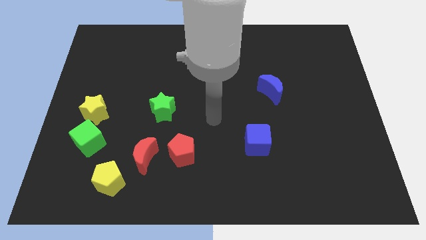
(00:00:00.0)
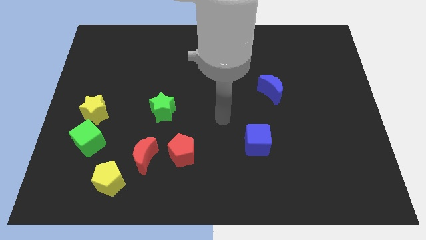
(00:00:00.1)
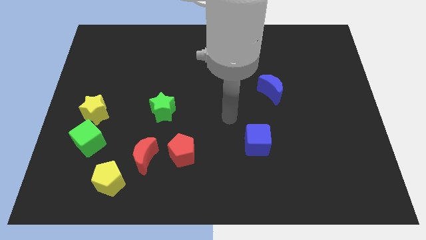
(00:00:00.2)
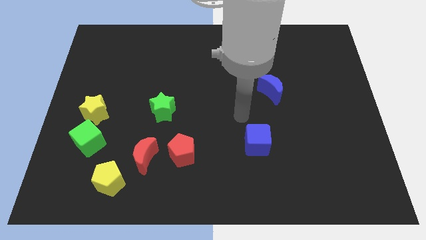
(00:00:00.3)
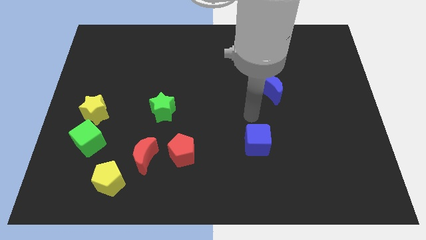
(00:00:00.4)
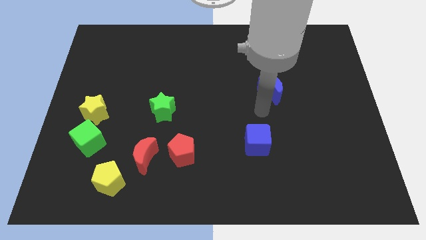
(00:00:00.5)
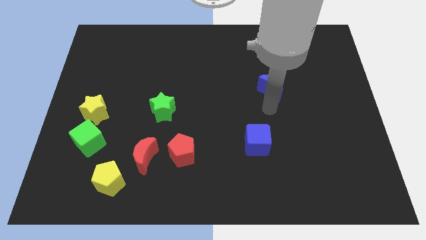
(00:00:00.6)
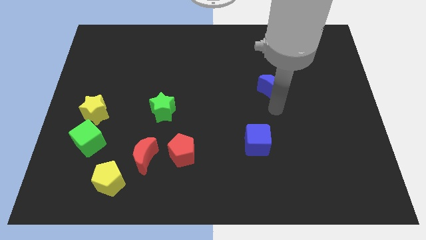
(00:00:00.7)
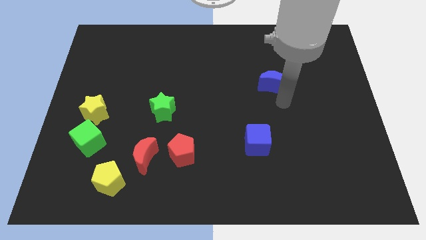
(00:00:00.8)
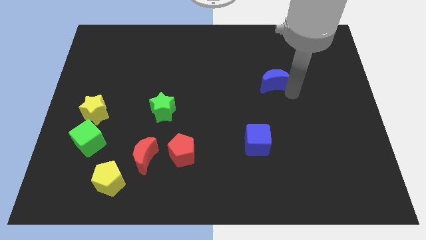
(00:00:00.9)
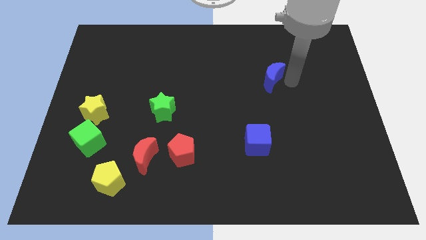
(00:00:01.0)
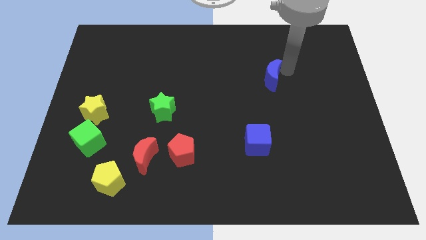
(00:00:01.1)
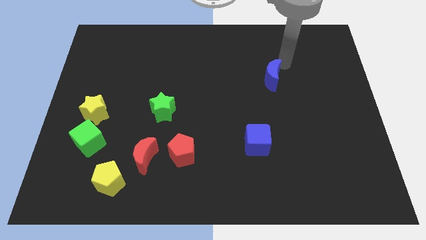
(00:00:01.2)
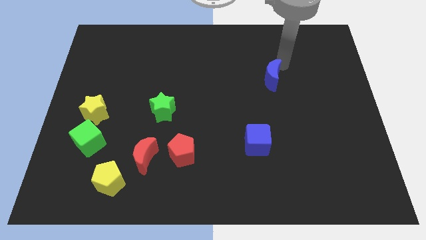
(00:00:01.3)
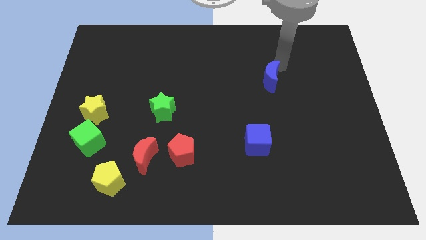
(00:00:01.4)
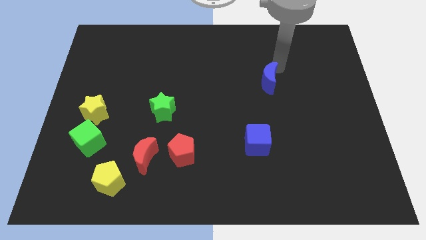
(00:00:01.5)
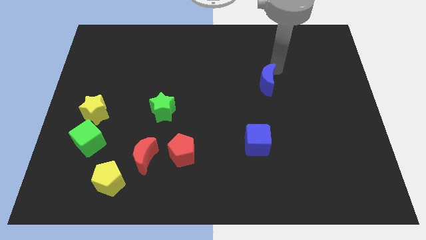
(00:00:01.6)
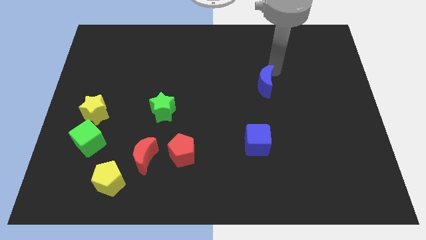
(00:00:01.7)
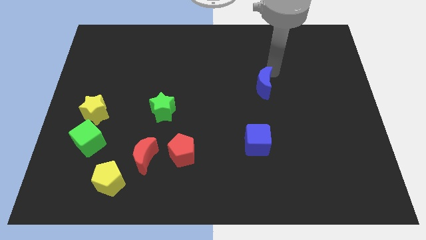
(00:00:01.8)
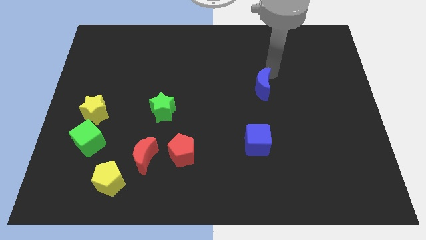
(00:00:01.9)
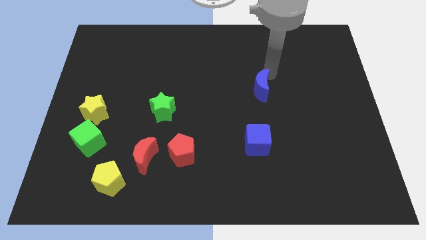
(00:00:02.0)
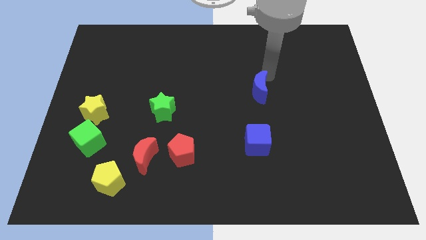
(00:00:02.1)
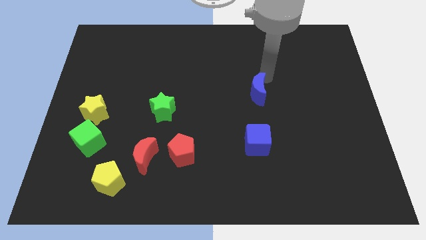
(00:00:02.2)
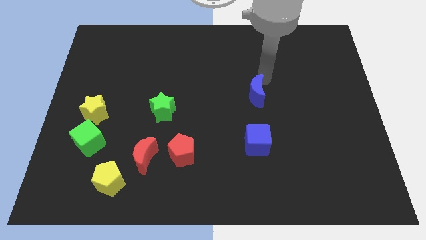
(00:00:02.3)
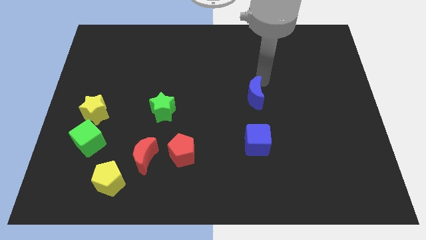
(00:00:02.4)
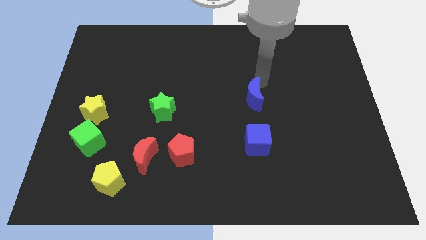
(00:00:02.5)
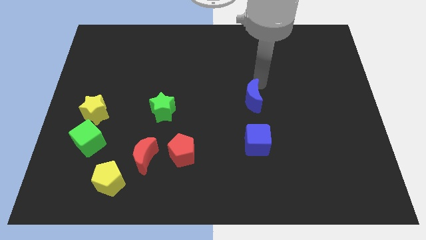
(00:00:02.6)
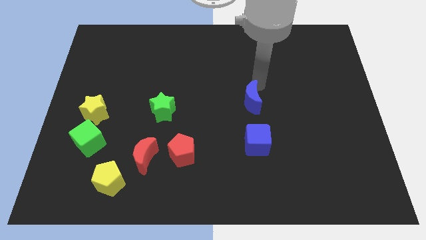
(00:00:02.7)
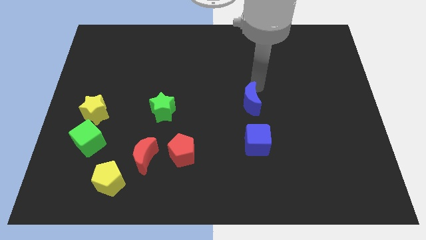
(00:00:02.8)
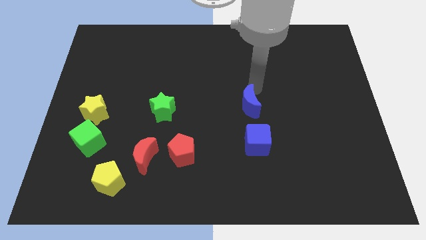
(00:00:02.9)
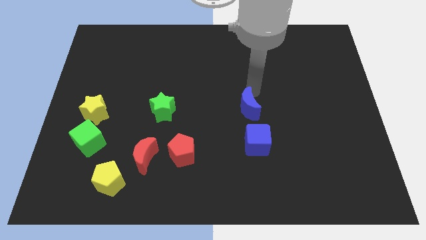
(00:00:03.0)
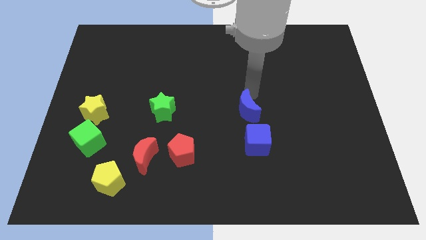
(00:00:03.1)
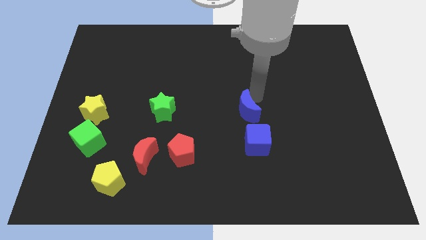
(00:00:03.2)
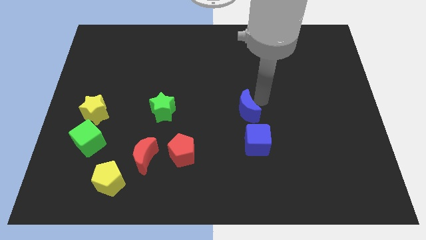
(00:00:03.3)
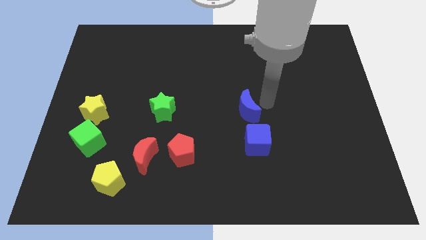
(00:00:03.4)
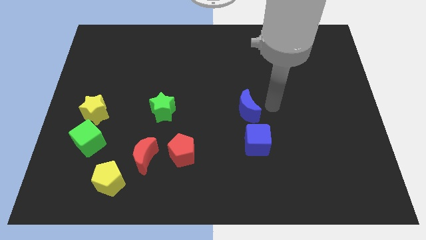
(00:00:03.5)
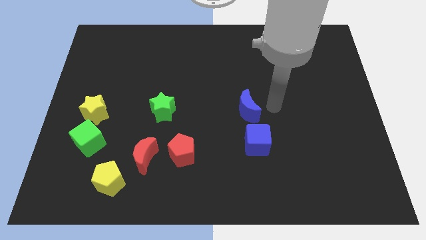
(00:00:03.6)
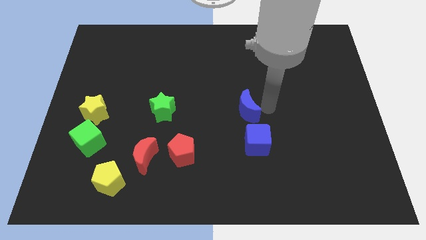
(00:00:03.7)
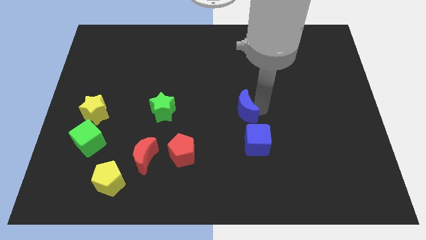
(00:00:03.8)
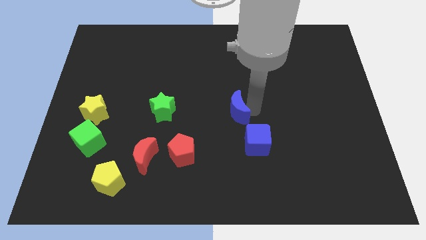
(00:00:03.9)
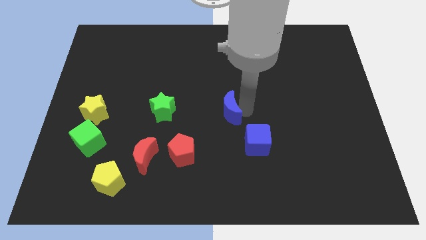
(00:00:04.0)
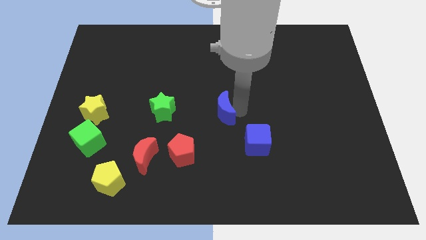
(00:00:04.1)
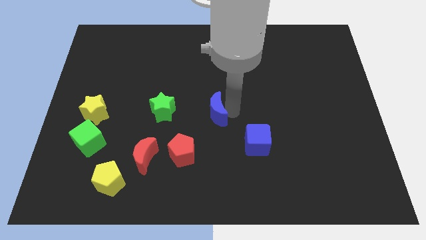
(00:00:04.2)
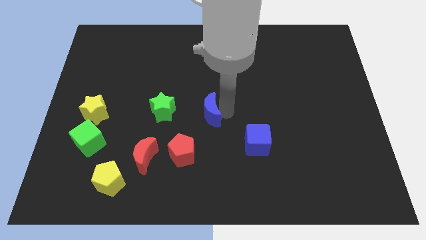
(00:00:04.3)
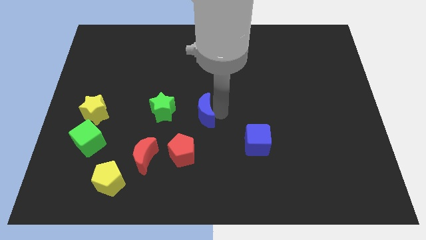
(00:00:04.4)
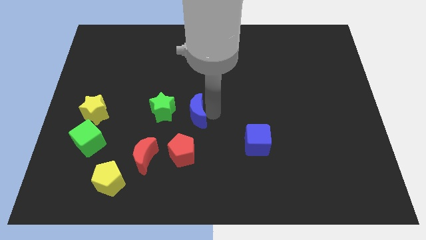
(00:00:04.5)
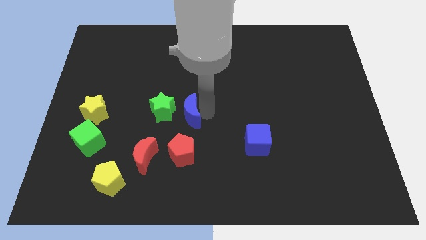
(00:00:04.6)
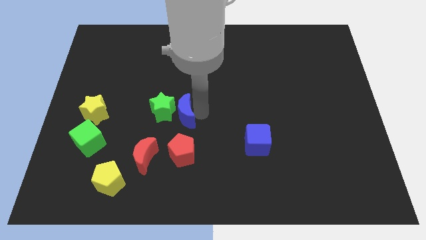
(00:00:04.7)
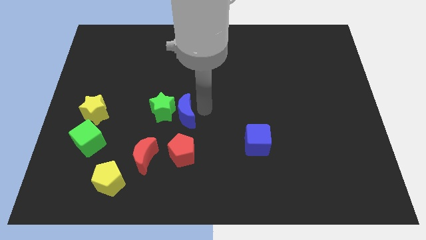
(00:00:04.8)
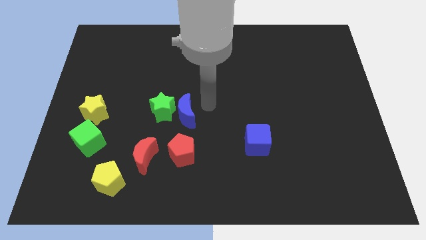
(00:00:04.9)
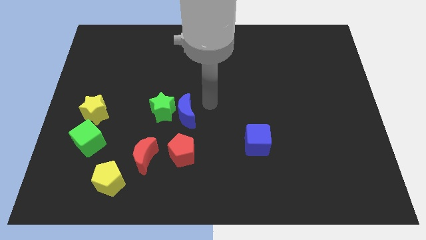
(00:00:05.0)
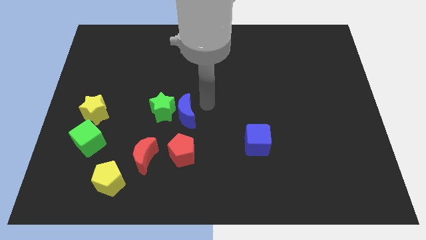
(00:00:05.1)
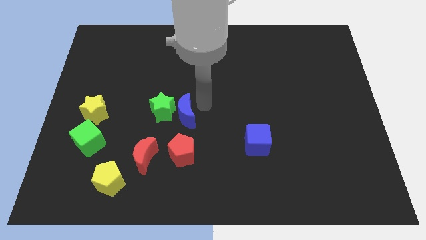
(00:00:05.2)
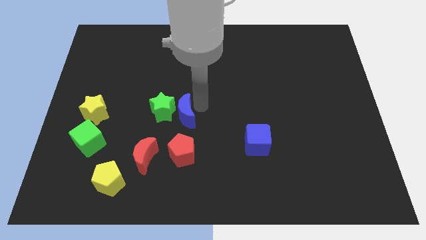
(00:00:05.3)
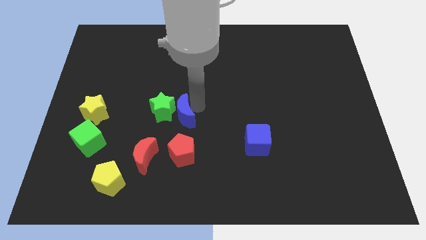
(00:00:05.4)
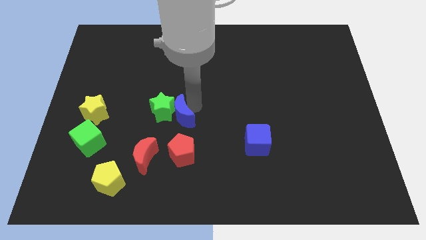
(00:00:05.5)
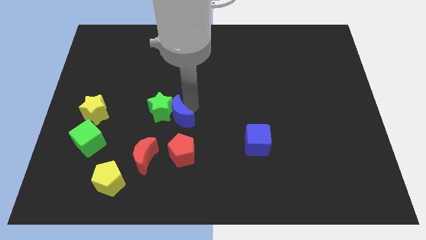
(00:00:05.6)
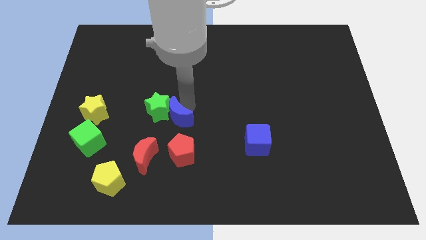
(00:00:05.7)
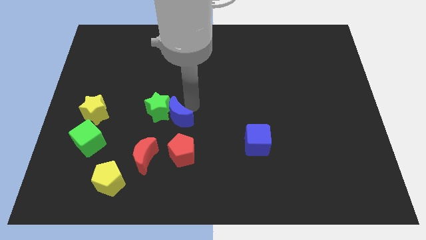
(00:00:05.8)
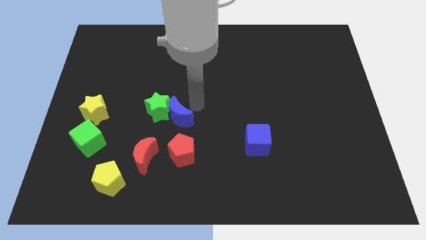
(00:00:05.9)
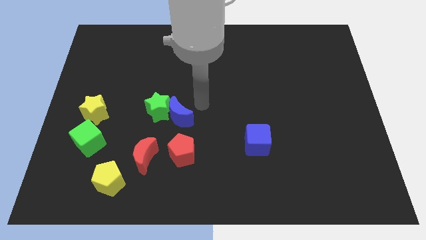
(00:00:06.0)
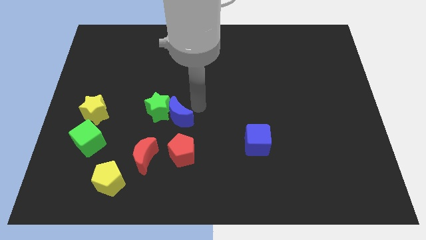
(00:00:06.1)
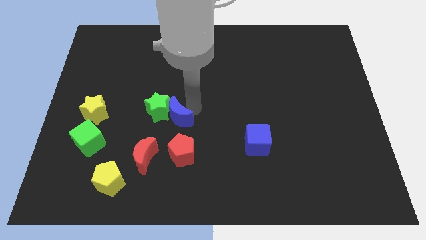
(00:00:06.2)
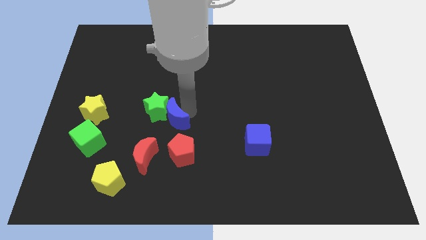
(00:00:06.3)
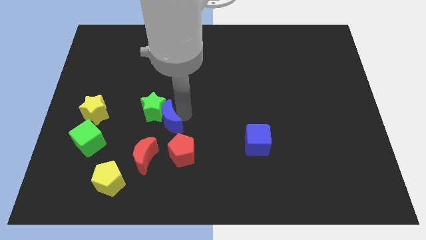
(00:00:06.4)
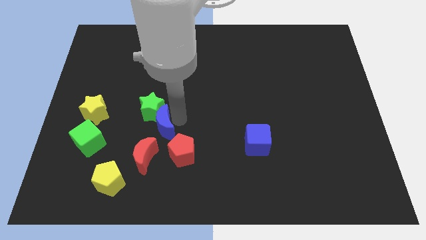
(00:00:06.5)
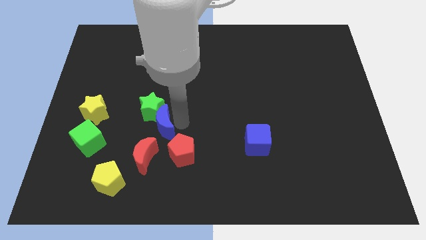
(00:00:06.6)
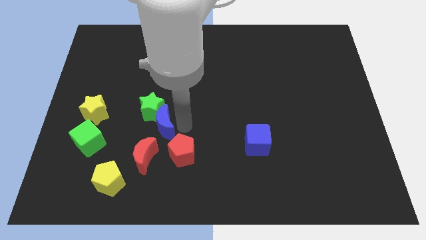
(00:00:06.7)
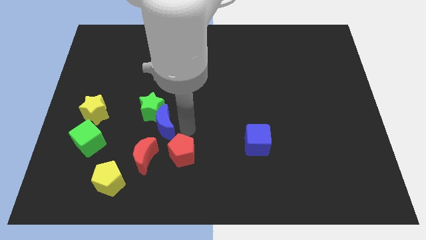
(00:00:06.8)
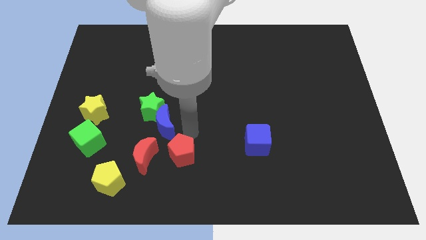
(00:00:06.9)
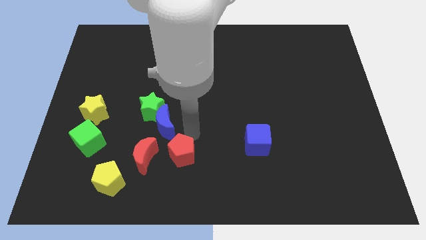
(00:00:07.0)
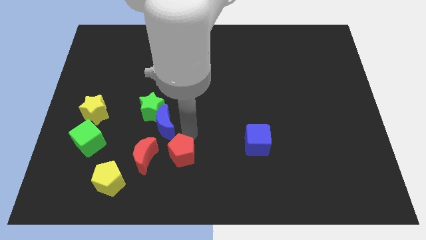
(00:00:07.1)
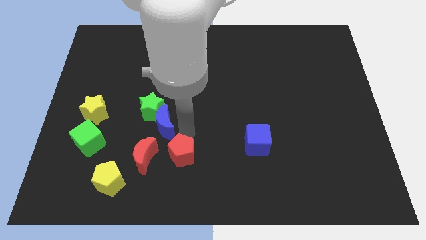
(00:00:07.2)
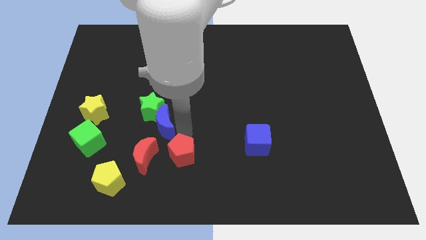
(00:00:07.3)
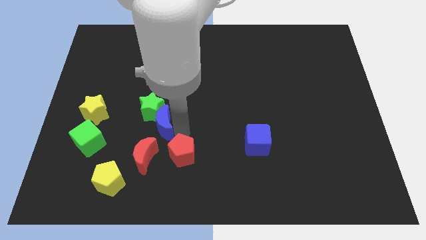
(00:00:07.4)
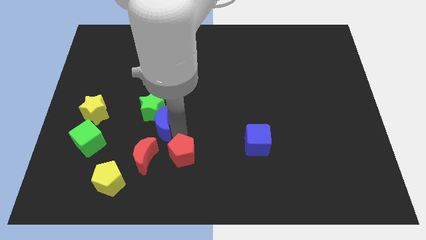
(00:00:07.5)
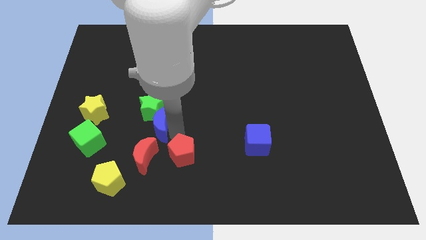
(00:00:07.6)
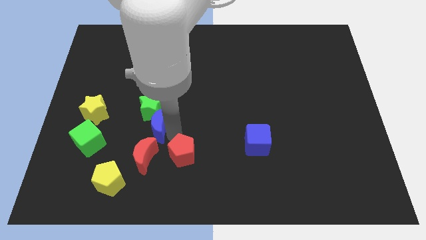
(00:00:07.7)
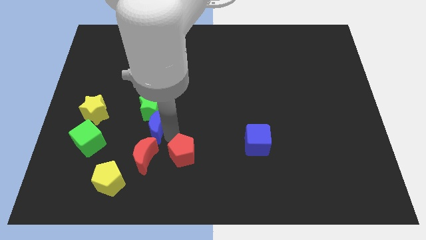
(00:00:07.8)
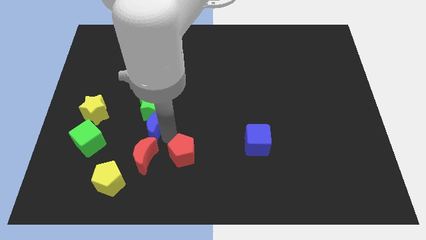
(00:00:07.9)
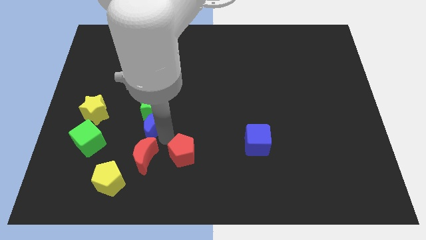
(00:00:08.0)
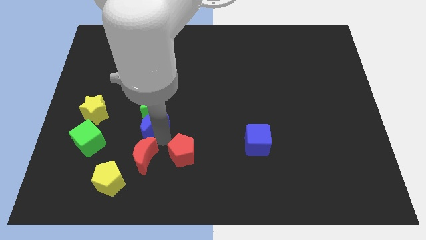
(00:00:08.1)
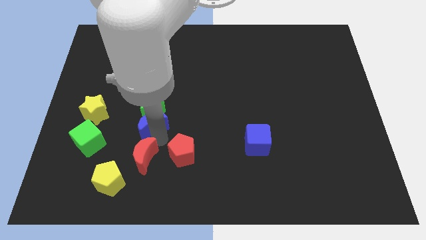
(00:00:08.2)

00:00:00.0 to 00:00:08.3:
slide the blue moon to the right side of the yellow star
